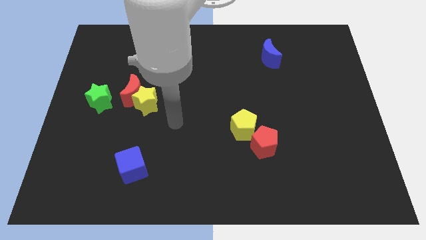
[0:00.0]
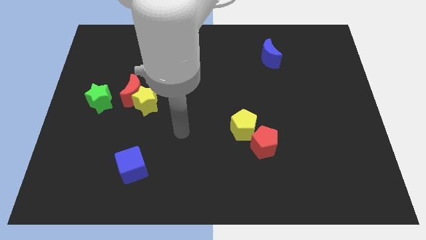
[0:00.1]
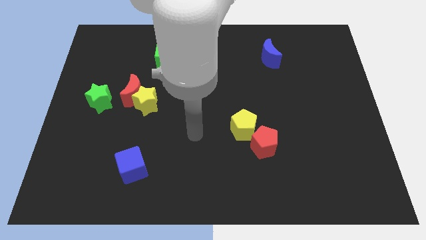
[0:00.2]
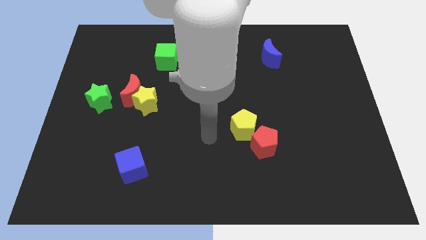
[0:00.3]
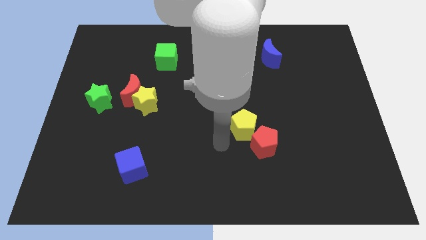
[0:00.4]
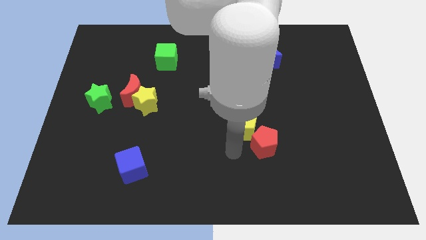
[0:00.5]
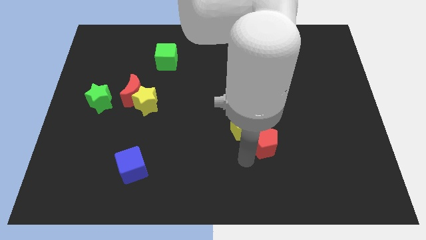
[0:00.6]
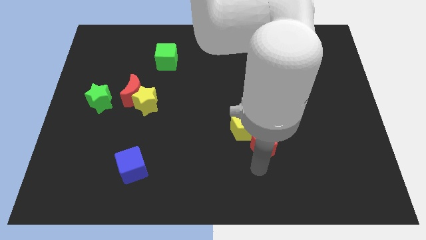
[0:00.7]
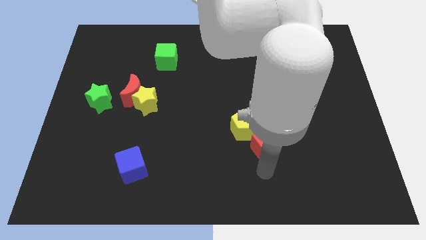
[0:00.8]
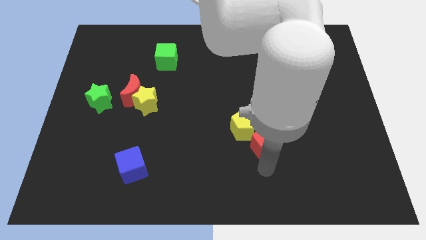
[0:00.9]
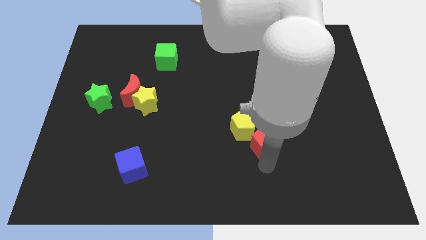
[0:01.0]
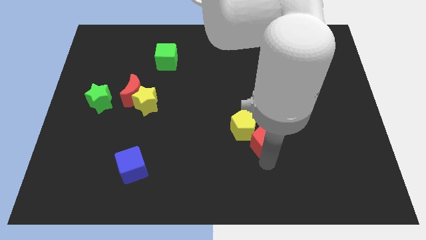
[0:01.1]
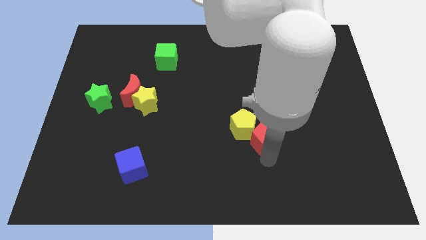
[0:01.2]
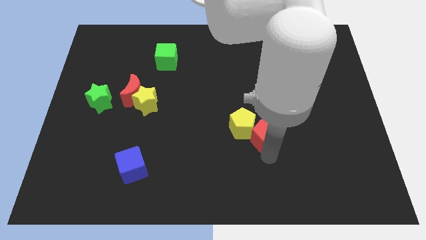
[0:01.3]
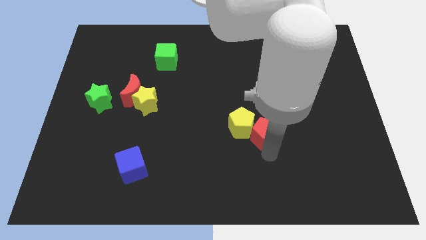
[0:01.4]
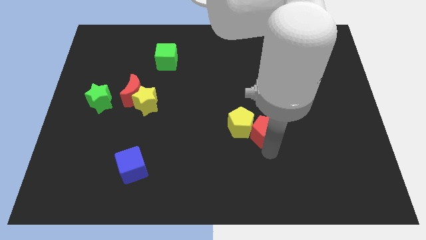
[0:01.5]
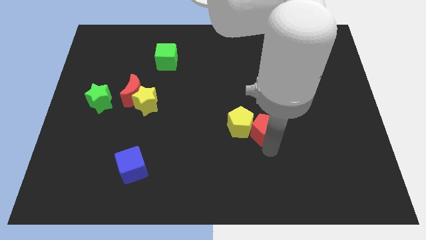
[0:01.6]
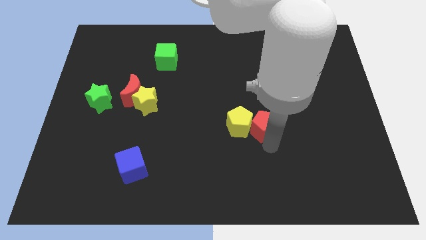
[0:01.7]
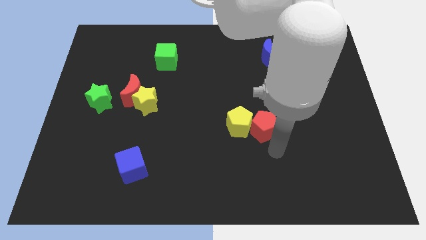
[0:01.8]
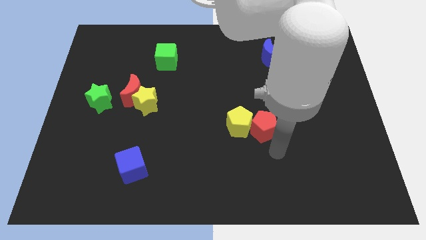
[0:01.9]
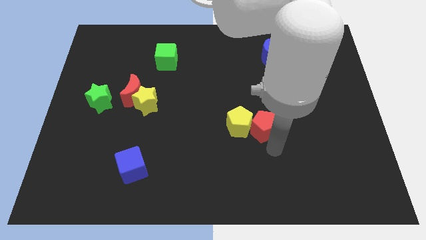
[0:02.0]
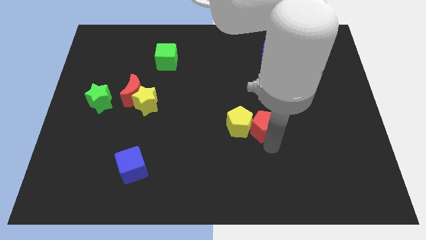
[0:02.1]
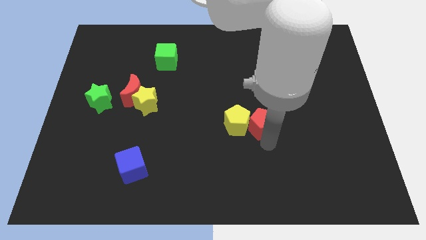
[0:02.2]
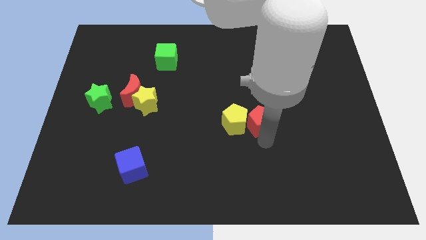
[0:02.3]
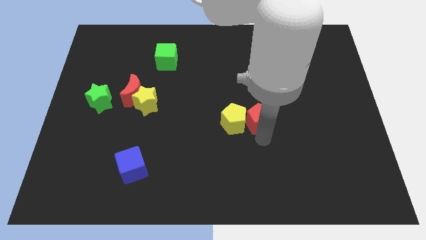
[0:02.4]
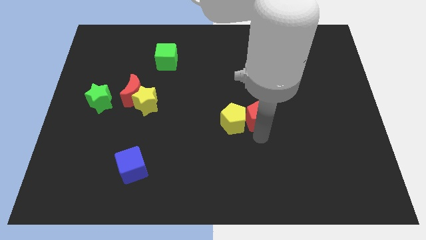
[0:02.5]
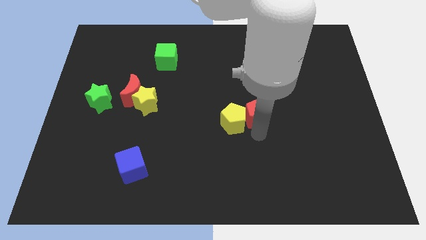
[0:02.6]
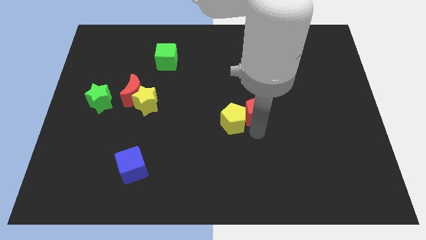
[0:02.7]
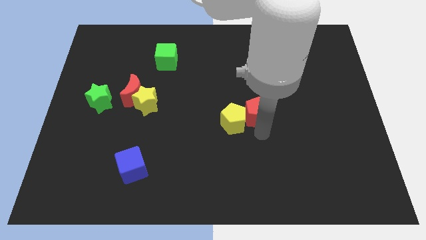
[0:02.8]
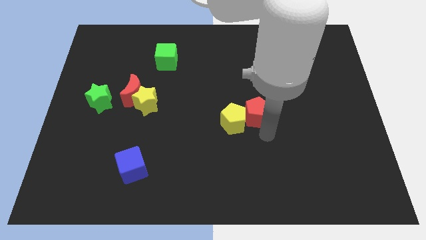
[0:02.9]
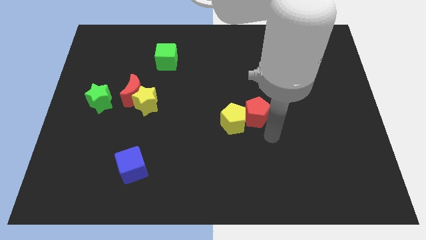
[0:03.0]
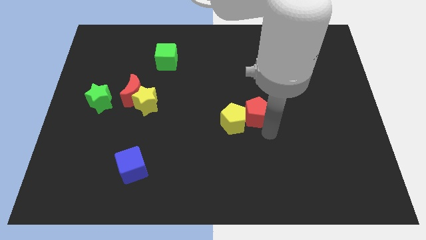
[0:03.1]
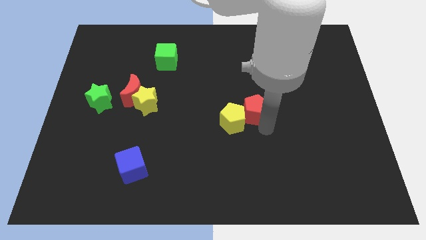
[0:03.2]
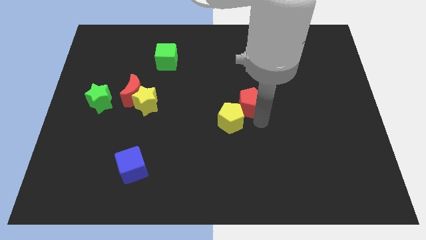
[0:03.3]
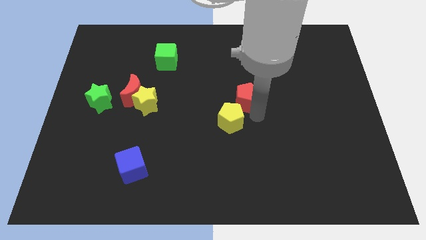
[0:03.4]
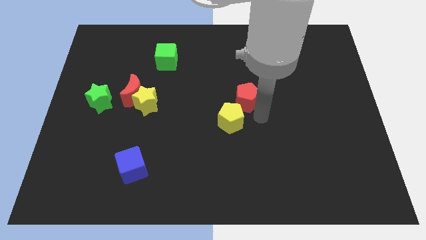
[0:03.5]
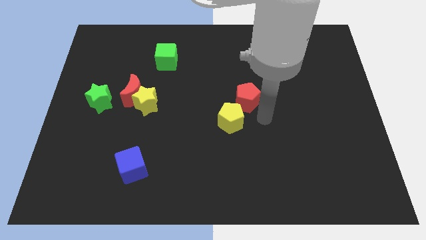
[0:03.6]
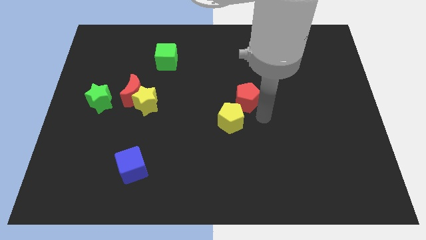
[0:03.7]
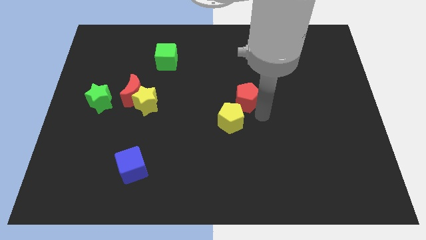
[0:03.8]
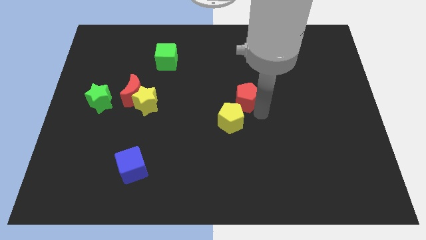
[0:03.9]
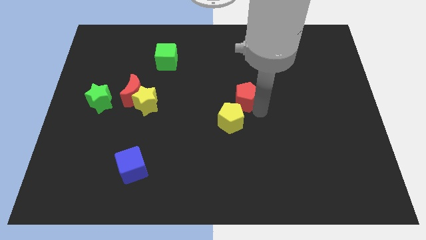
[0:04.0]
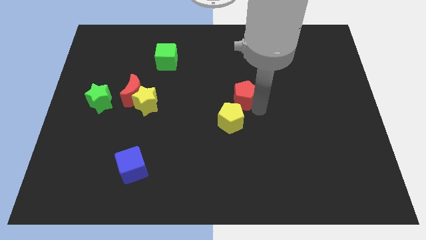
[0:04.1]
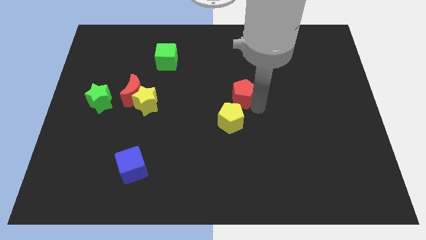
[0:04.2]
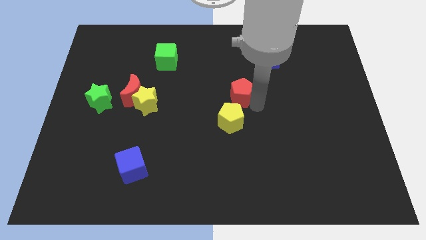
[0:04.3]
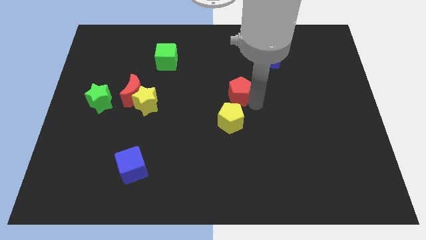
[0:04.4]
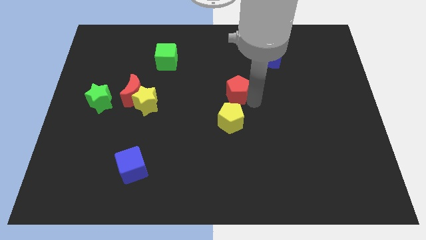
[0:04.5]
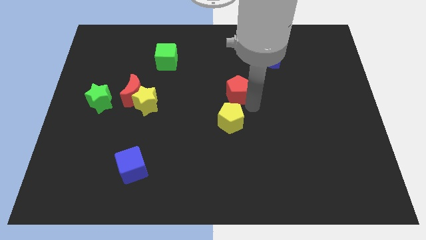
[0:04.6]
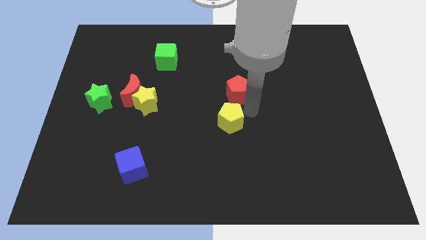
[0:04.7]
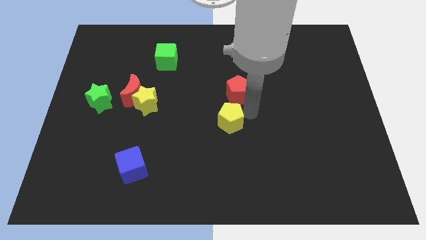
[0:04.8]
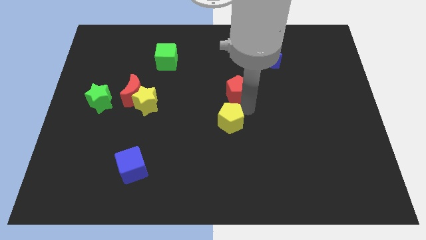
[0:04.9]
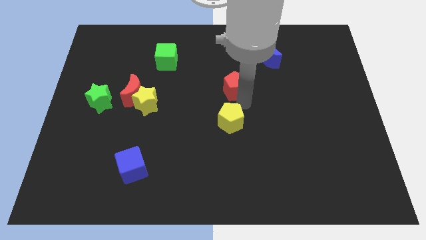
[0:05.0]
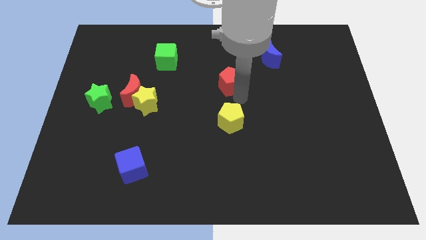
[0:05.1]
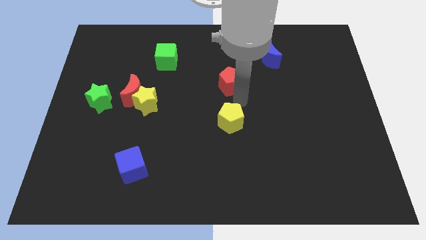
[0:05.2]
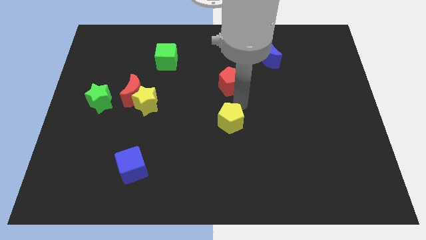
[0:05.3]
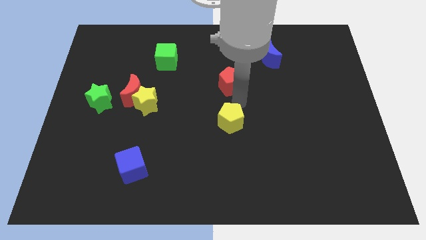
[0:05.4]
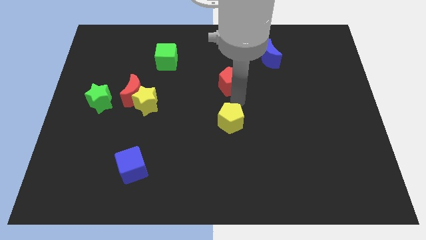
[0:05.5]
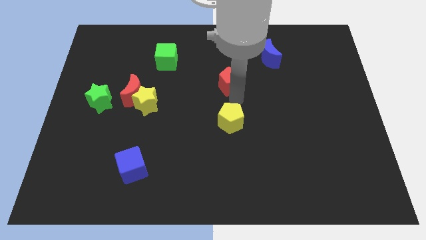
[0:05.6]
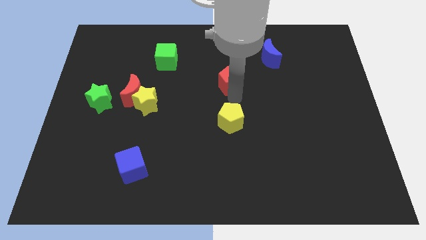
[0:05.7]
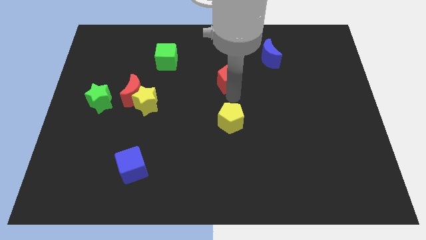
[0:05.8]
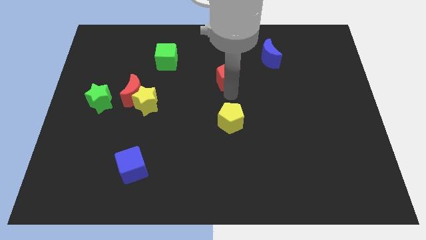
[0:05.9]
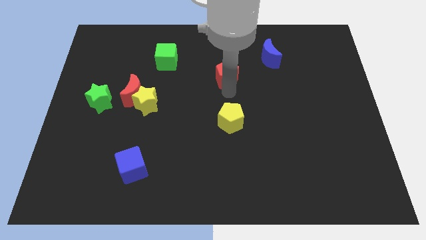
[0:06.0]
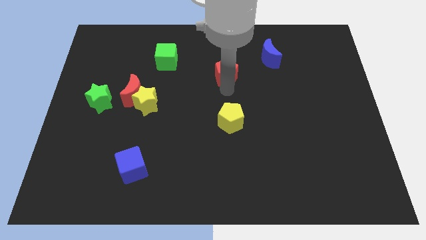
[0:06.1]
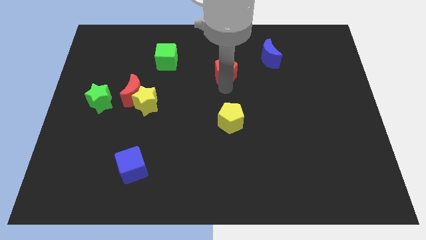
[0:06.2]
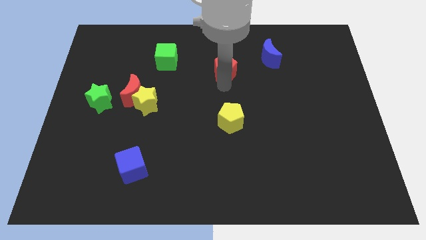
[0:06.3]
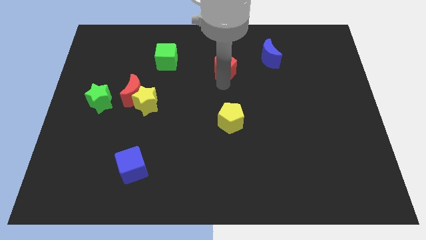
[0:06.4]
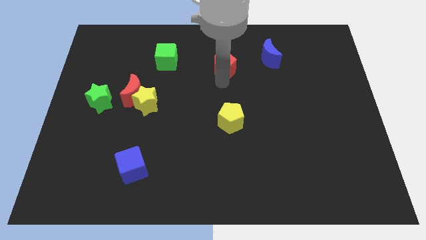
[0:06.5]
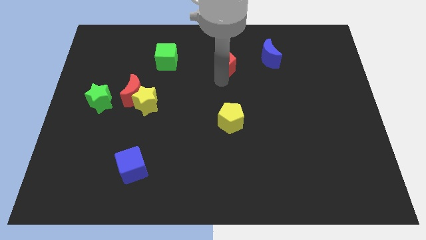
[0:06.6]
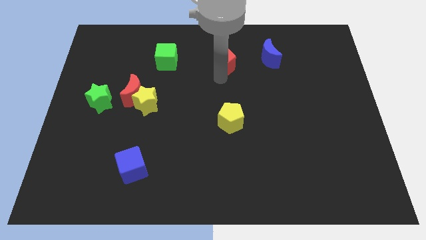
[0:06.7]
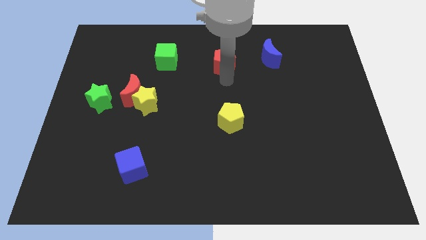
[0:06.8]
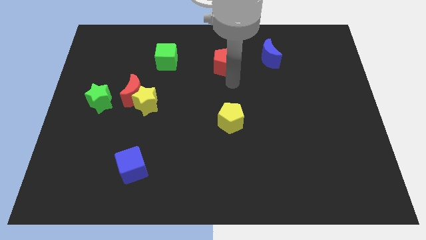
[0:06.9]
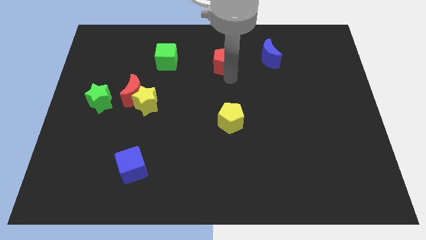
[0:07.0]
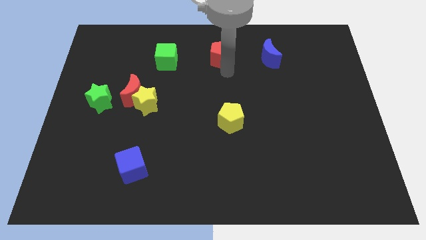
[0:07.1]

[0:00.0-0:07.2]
put the red pentagon to the top

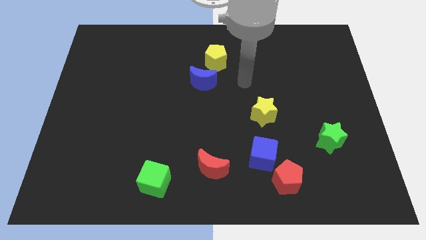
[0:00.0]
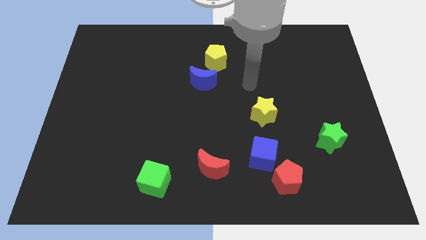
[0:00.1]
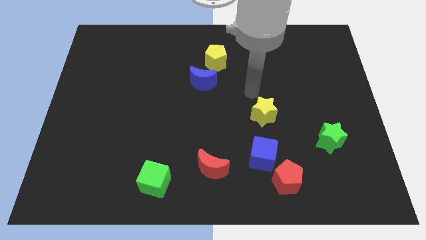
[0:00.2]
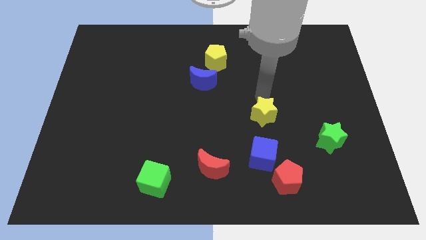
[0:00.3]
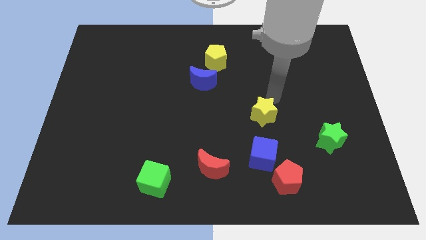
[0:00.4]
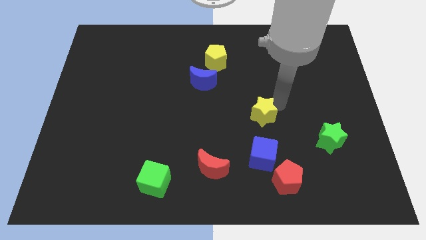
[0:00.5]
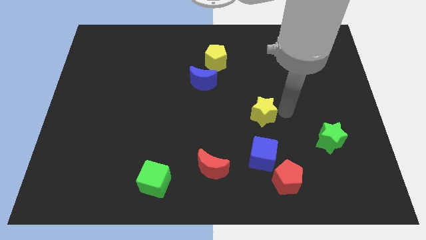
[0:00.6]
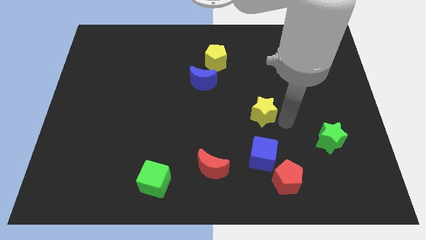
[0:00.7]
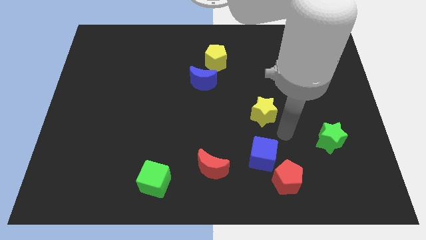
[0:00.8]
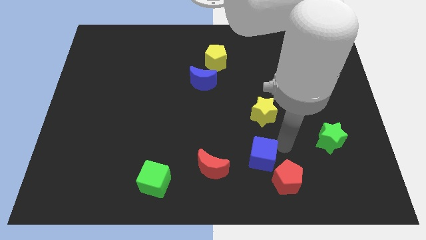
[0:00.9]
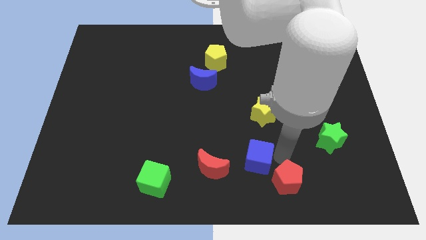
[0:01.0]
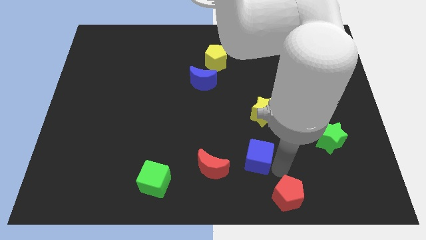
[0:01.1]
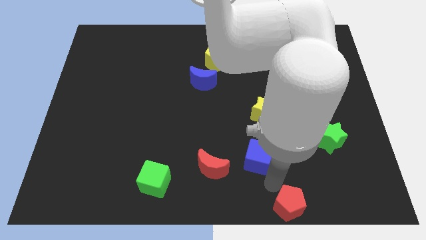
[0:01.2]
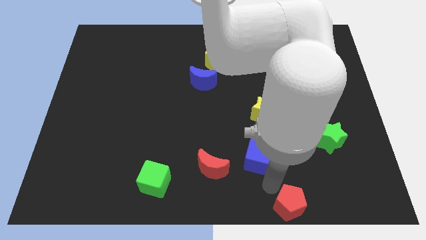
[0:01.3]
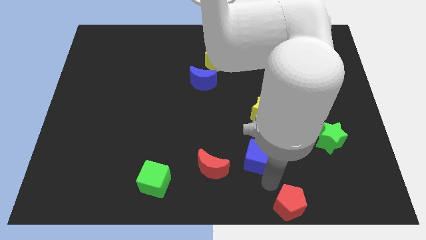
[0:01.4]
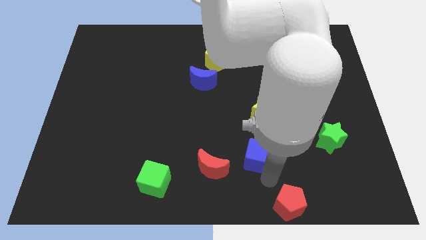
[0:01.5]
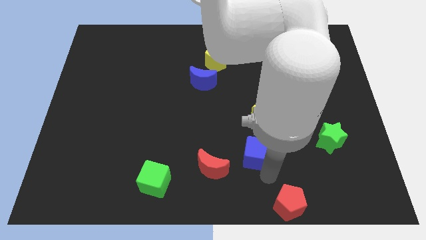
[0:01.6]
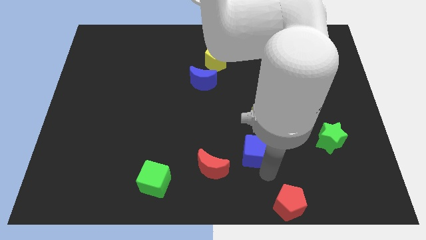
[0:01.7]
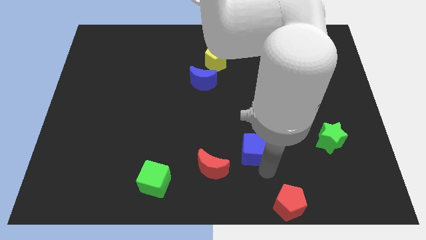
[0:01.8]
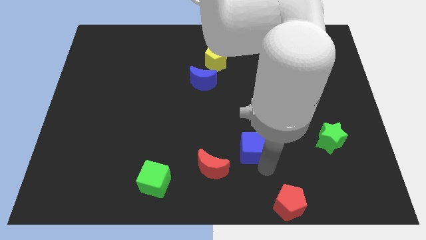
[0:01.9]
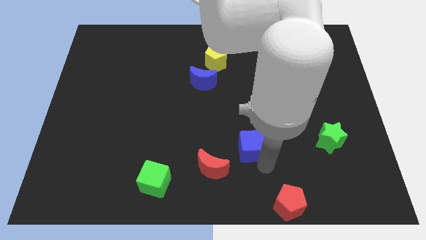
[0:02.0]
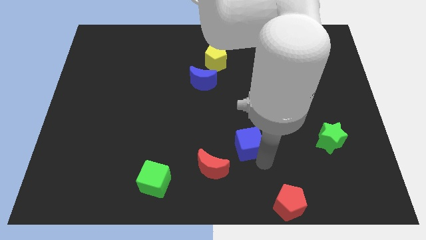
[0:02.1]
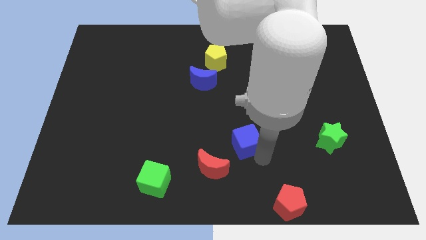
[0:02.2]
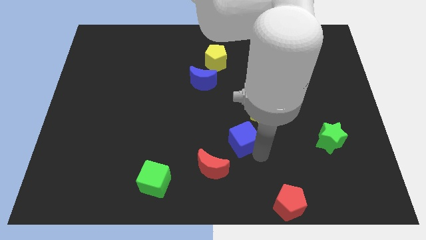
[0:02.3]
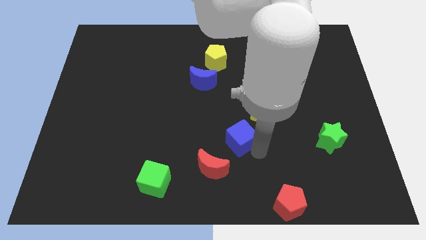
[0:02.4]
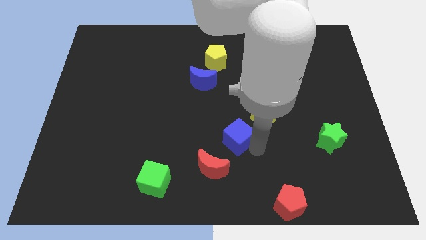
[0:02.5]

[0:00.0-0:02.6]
move the blue cube to the center of the board
